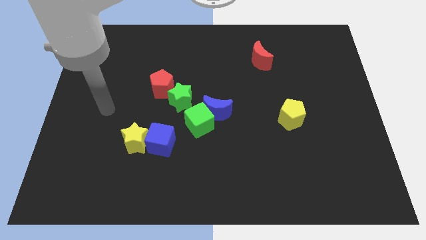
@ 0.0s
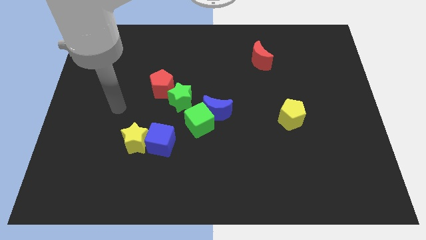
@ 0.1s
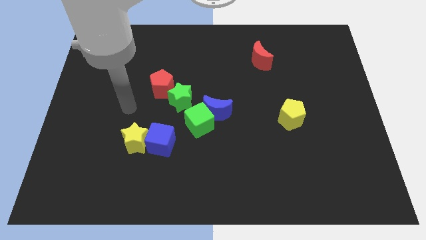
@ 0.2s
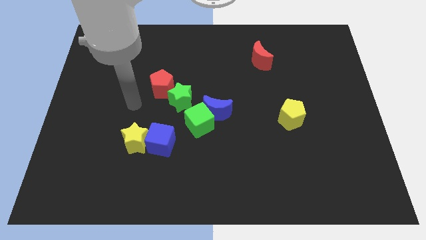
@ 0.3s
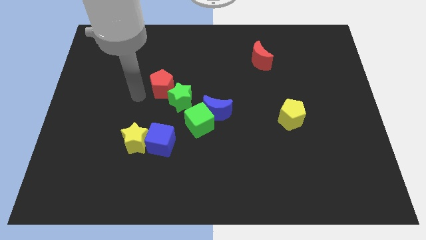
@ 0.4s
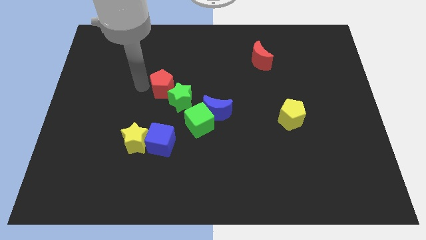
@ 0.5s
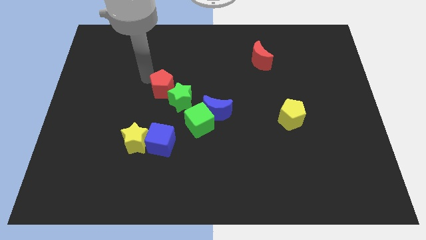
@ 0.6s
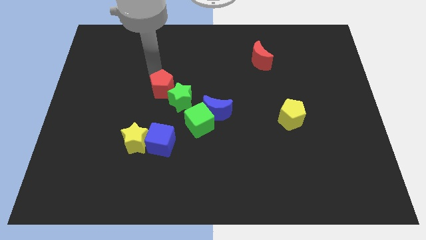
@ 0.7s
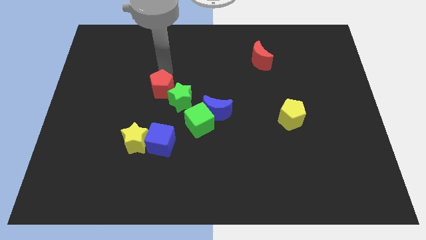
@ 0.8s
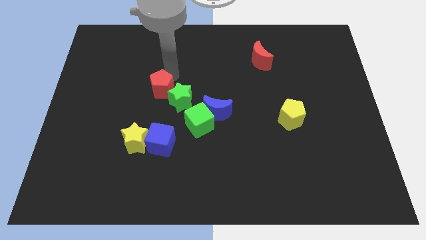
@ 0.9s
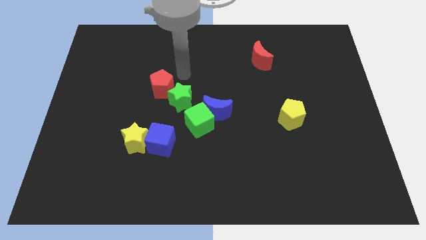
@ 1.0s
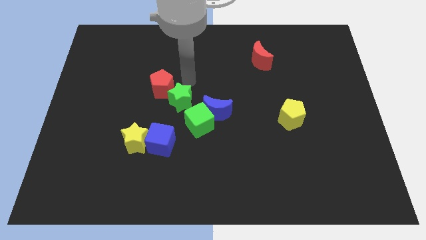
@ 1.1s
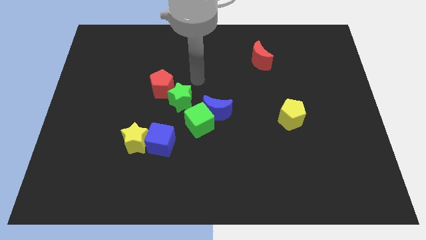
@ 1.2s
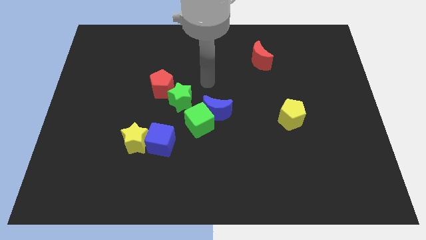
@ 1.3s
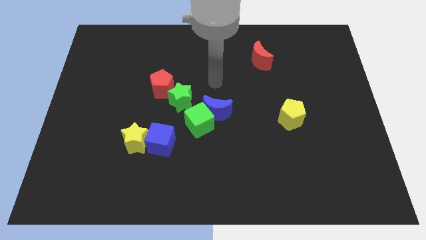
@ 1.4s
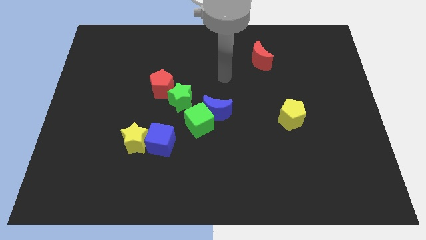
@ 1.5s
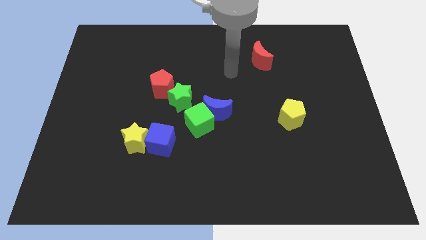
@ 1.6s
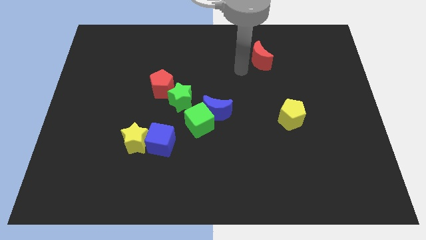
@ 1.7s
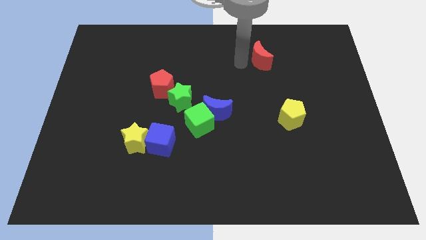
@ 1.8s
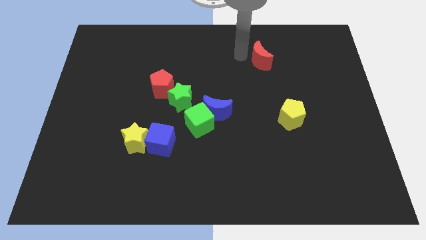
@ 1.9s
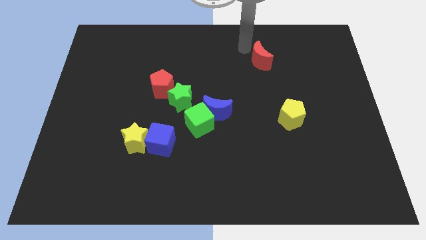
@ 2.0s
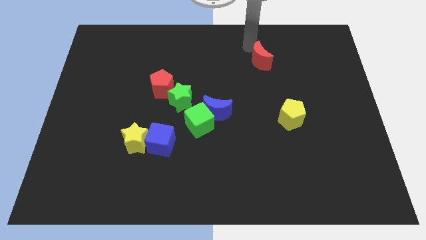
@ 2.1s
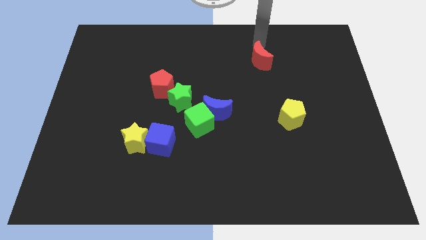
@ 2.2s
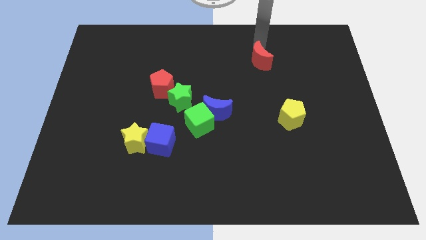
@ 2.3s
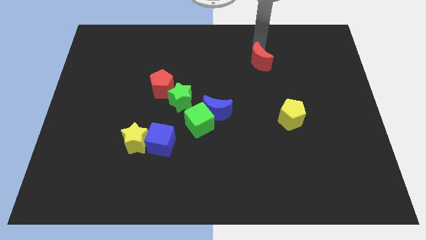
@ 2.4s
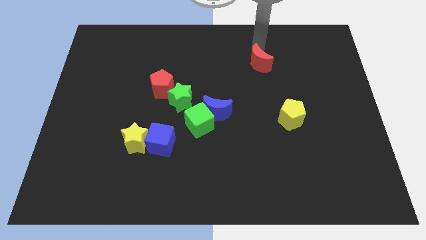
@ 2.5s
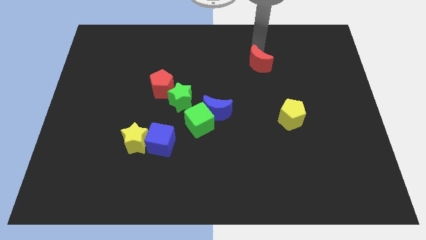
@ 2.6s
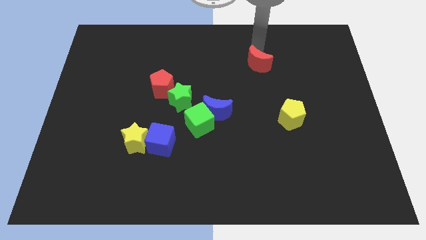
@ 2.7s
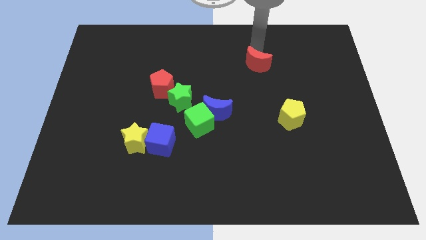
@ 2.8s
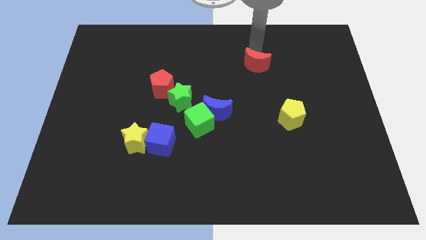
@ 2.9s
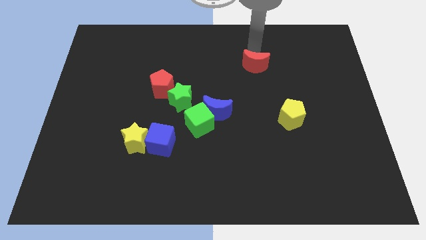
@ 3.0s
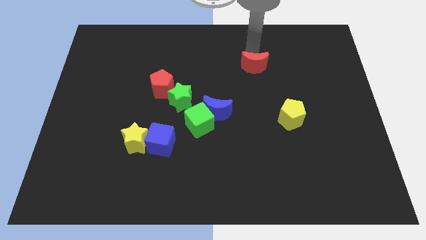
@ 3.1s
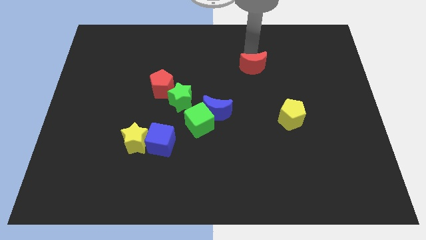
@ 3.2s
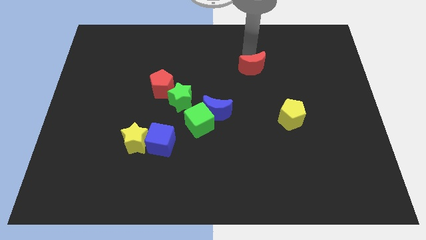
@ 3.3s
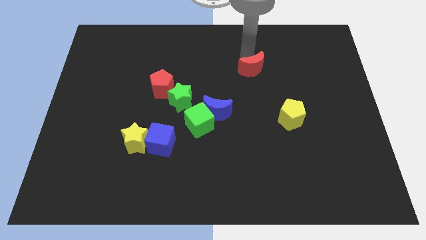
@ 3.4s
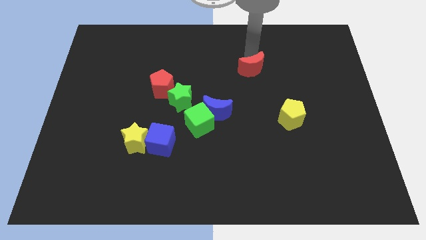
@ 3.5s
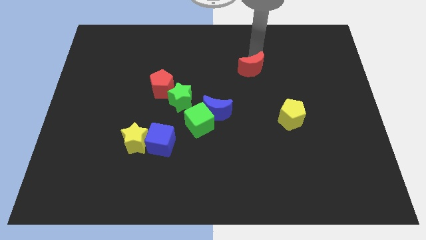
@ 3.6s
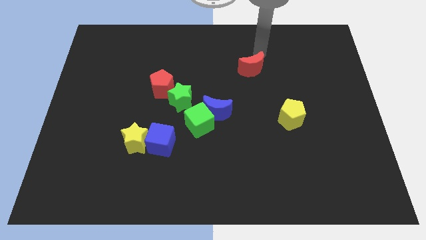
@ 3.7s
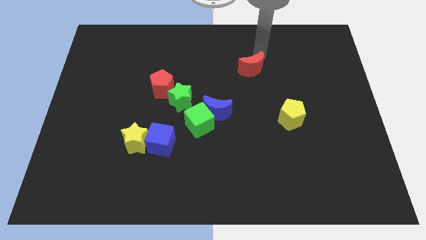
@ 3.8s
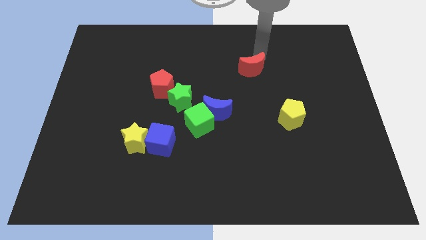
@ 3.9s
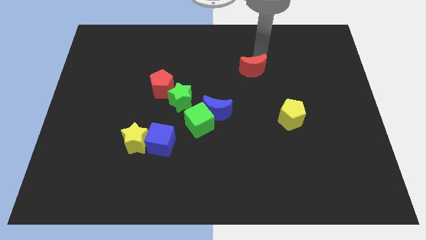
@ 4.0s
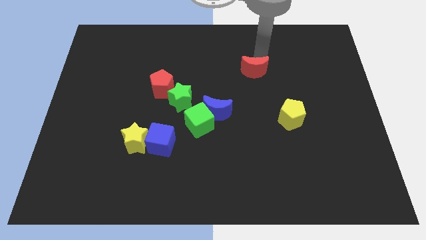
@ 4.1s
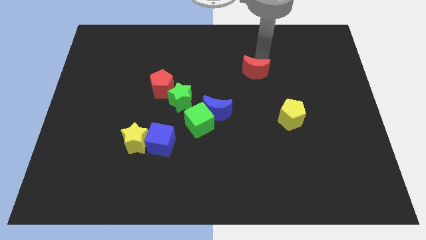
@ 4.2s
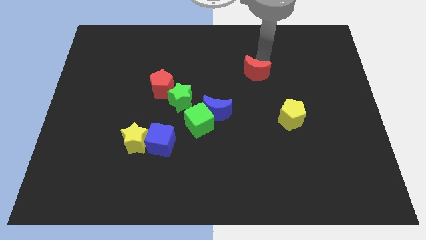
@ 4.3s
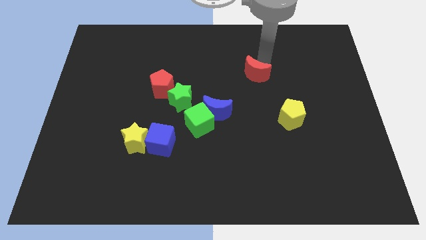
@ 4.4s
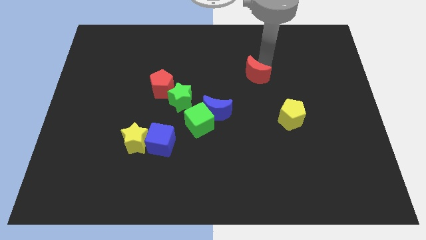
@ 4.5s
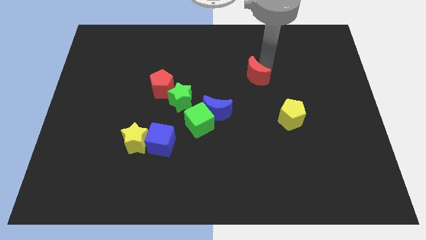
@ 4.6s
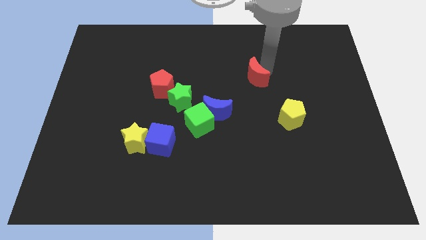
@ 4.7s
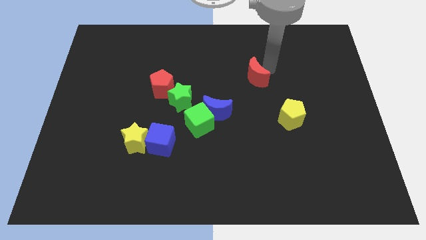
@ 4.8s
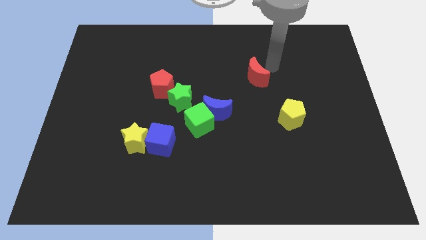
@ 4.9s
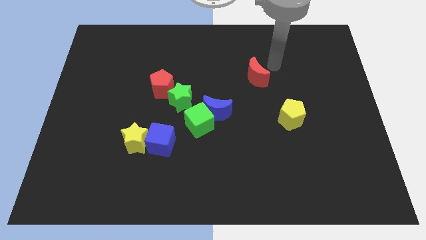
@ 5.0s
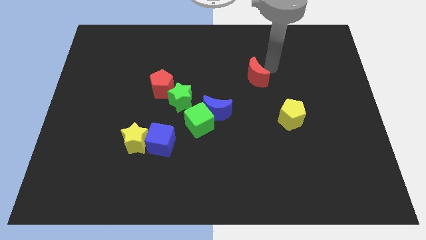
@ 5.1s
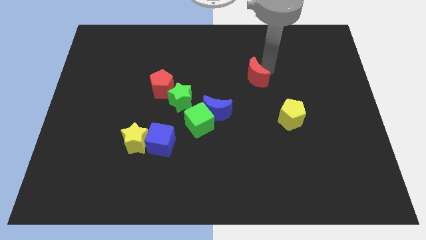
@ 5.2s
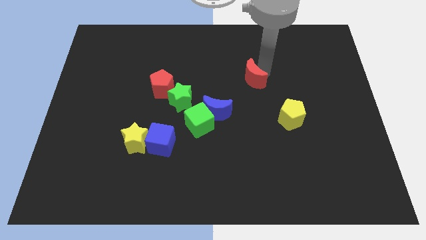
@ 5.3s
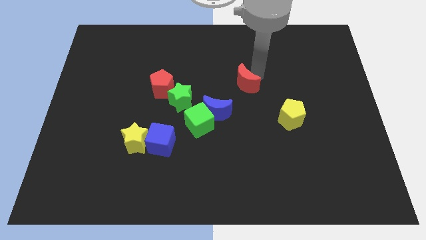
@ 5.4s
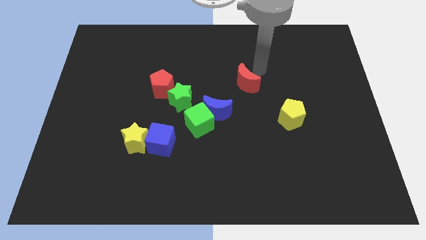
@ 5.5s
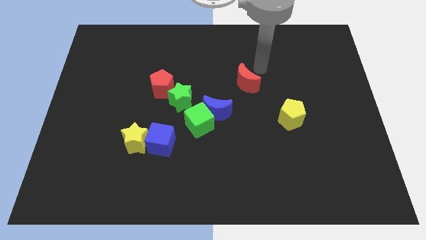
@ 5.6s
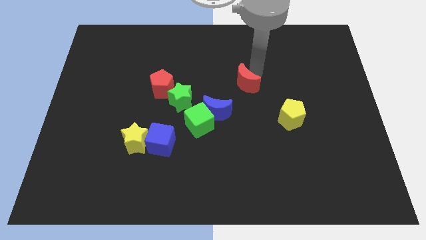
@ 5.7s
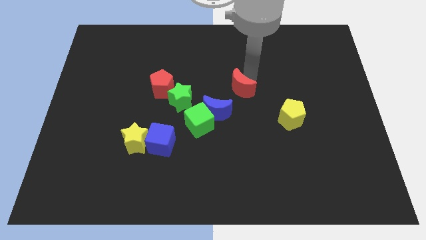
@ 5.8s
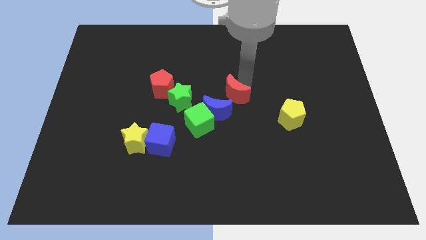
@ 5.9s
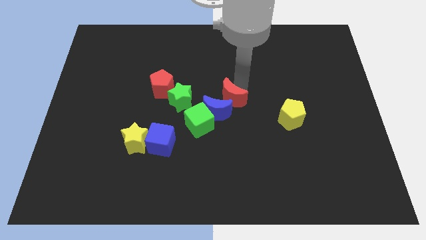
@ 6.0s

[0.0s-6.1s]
put the red moon next to the blue moon

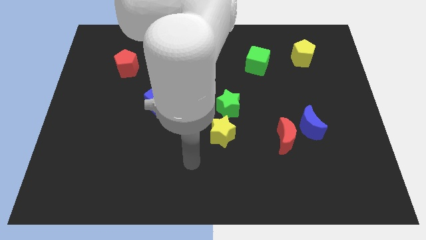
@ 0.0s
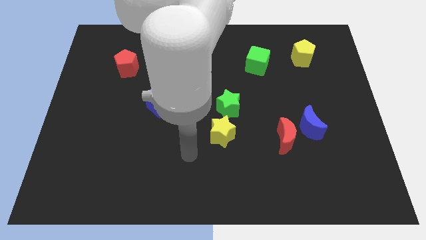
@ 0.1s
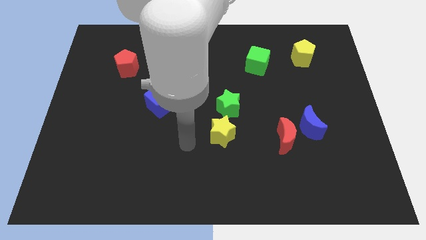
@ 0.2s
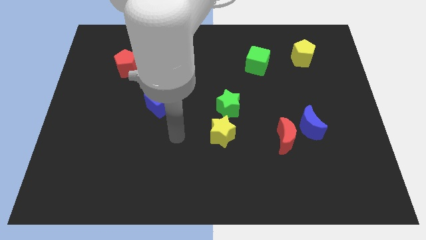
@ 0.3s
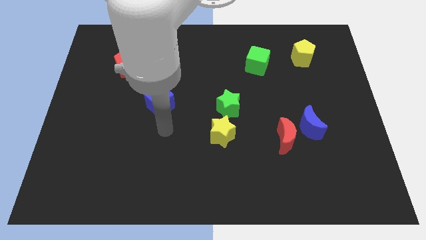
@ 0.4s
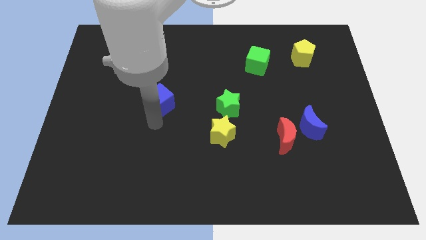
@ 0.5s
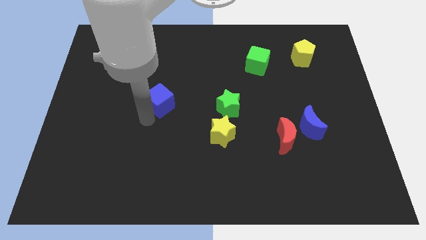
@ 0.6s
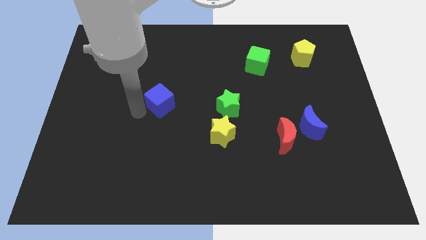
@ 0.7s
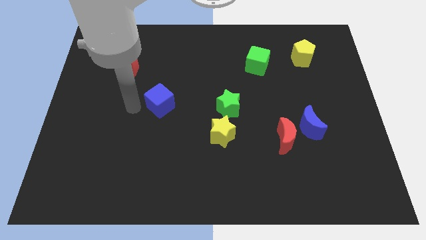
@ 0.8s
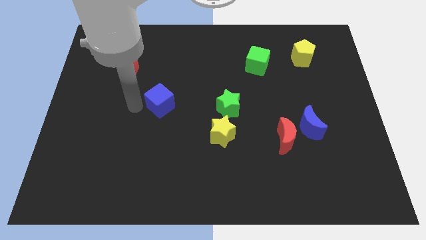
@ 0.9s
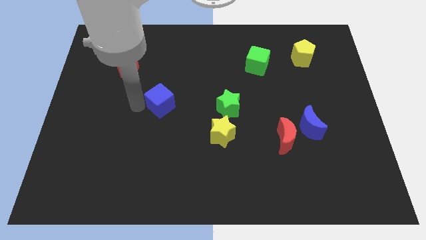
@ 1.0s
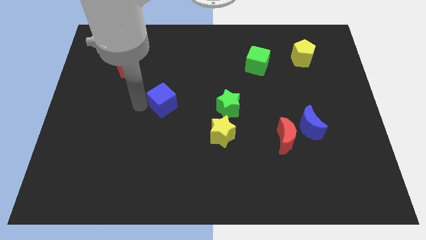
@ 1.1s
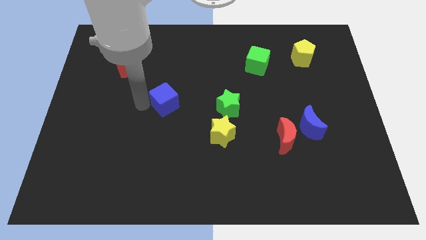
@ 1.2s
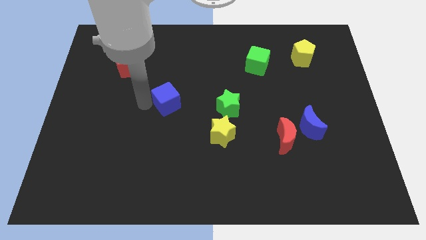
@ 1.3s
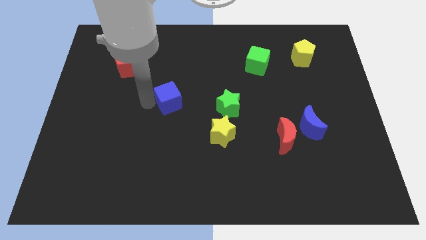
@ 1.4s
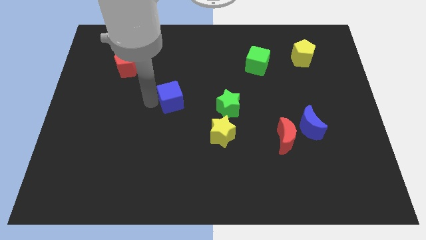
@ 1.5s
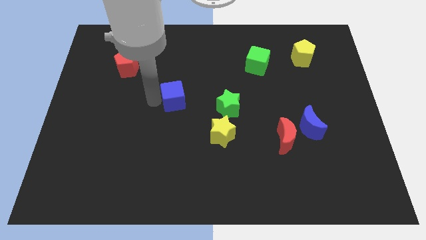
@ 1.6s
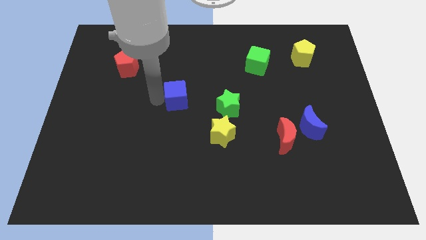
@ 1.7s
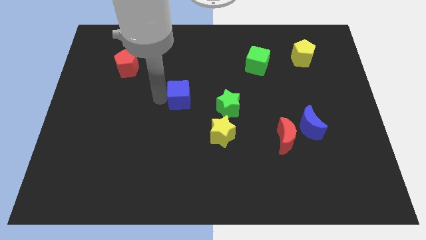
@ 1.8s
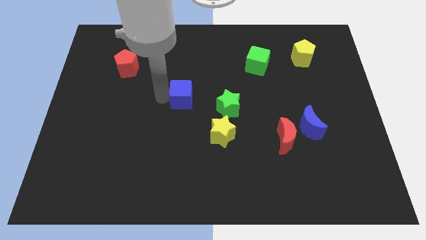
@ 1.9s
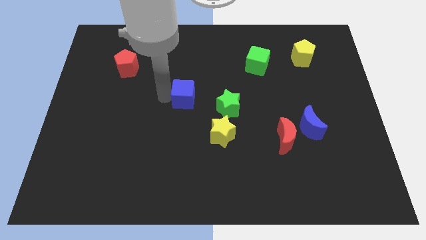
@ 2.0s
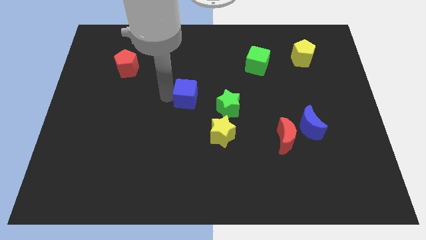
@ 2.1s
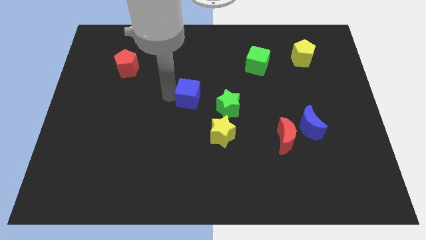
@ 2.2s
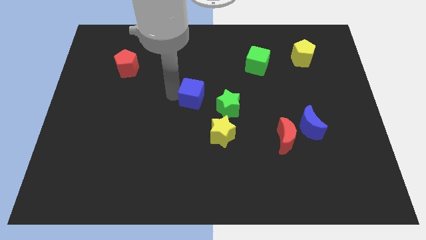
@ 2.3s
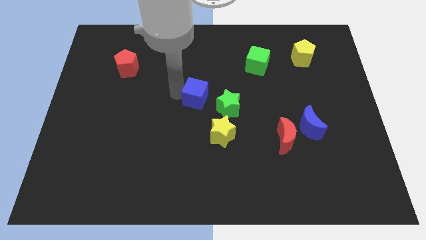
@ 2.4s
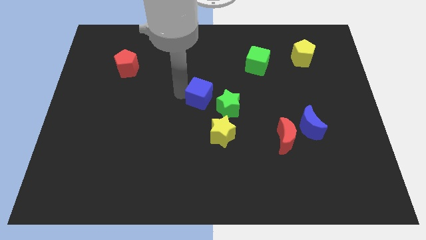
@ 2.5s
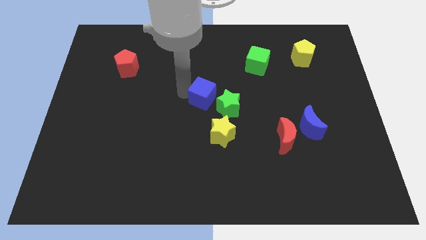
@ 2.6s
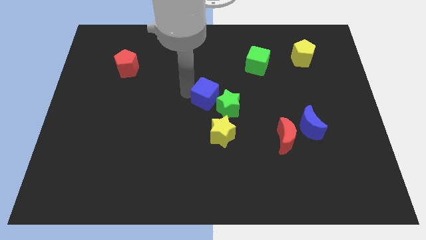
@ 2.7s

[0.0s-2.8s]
move the blue cube next to the green star
